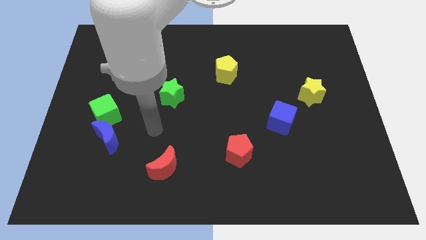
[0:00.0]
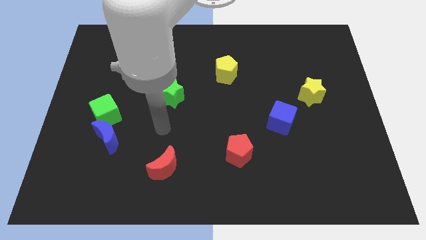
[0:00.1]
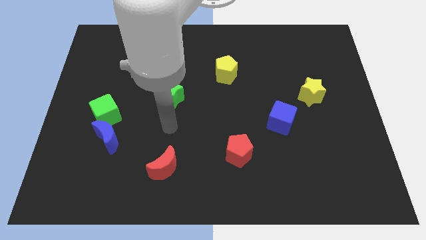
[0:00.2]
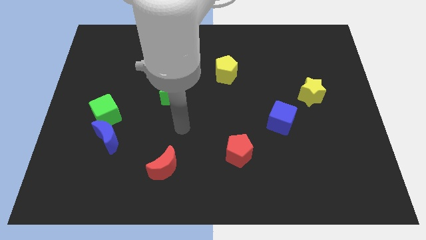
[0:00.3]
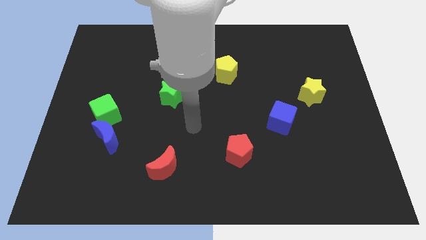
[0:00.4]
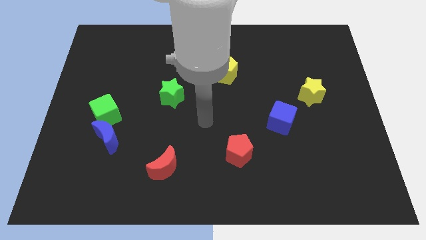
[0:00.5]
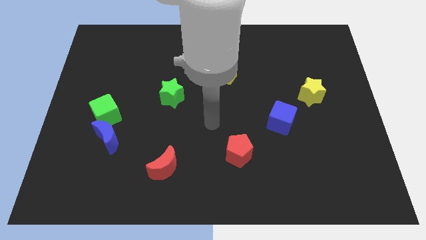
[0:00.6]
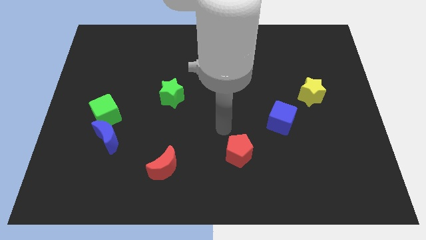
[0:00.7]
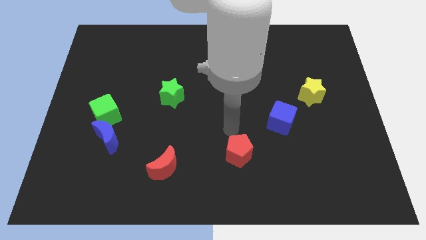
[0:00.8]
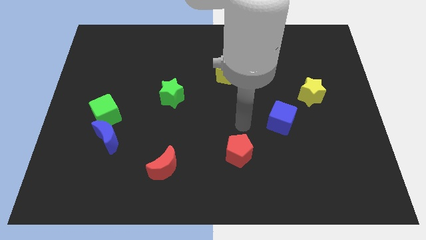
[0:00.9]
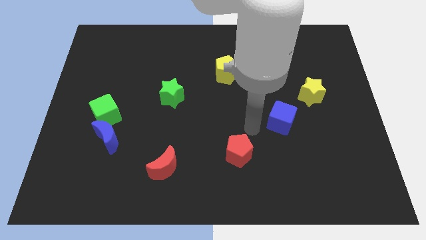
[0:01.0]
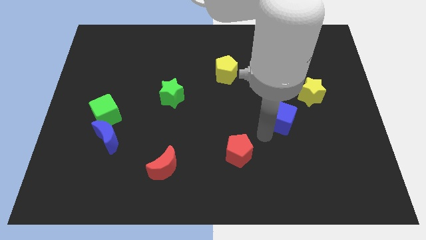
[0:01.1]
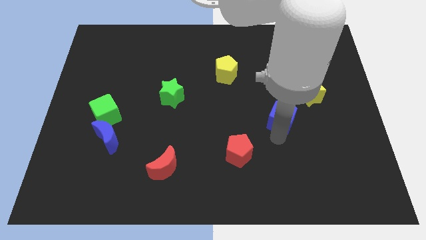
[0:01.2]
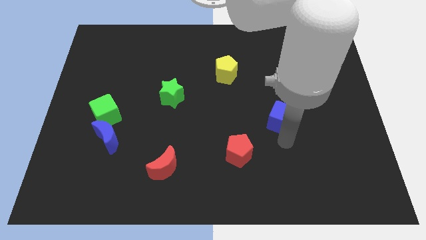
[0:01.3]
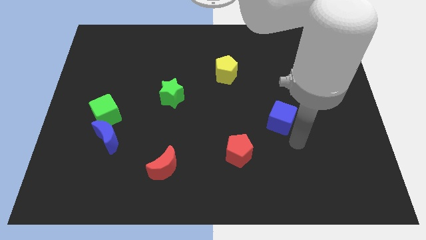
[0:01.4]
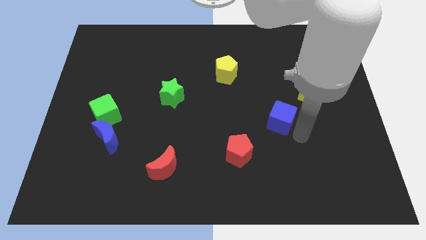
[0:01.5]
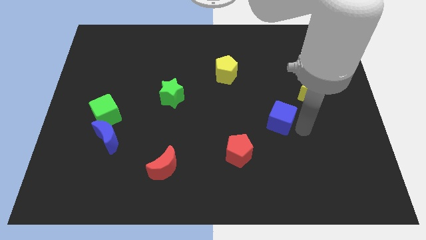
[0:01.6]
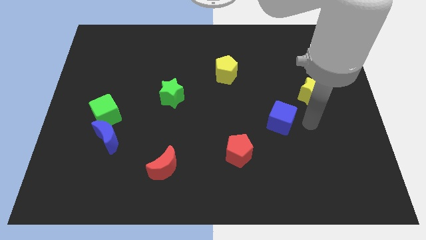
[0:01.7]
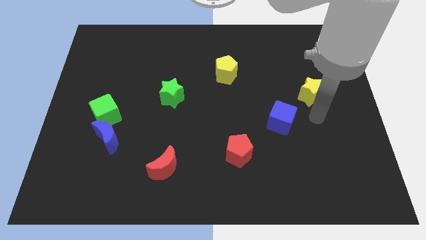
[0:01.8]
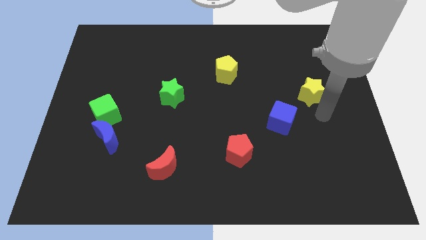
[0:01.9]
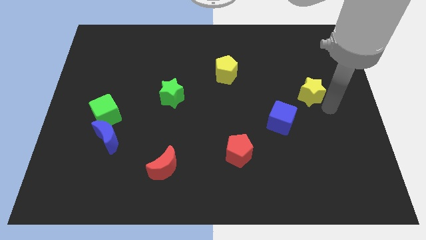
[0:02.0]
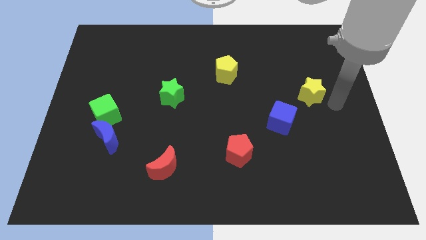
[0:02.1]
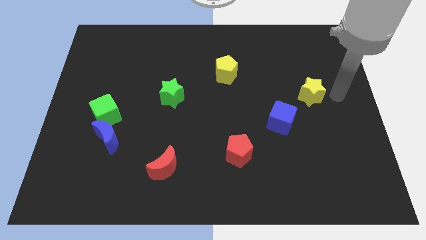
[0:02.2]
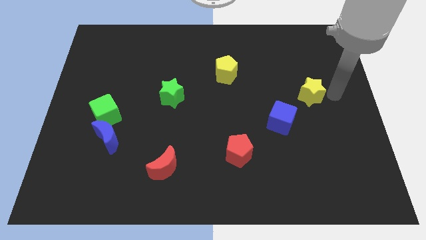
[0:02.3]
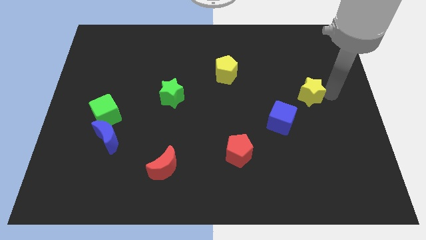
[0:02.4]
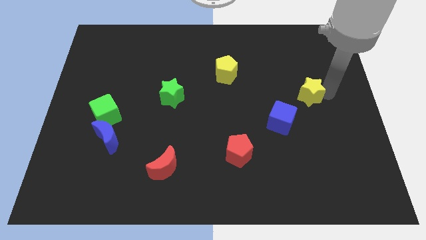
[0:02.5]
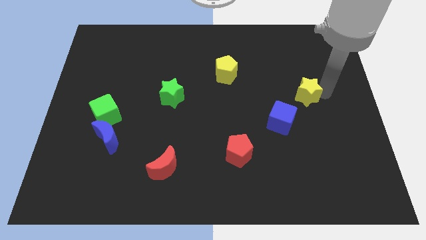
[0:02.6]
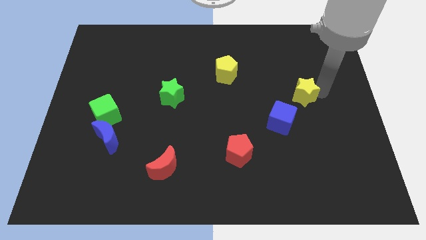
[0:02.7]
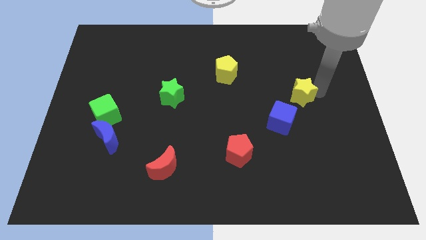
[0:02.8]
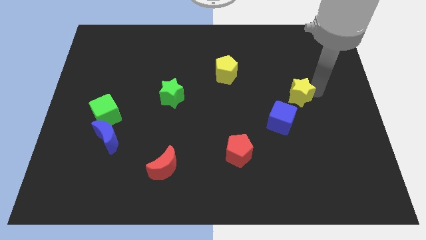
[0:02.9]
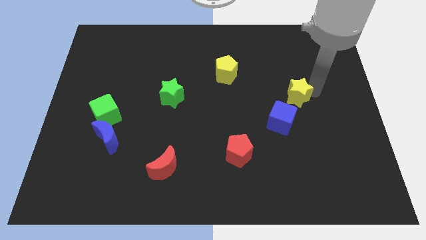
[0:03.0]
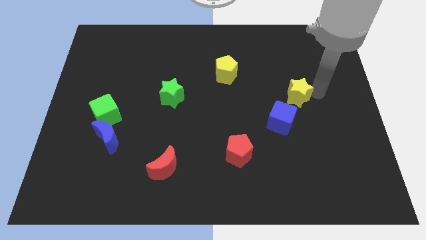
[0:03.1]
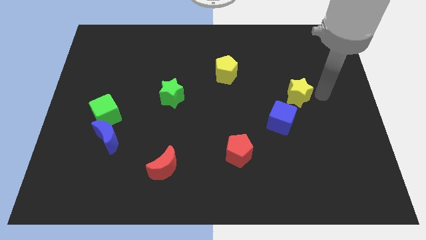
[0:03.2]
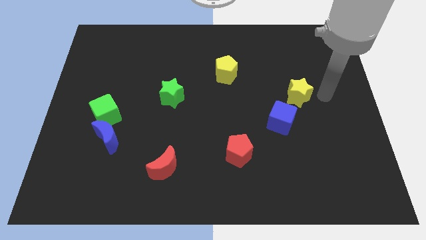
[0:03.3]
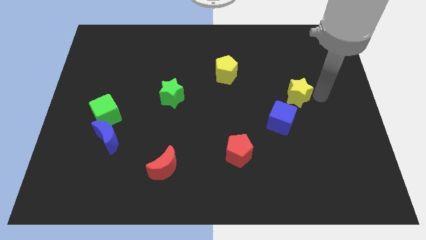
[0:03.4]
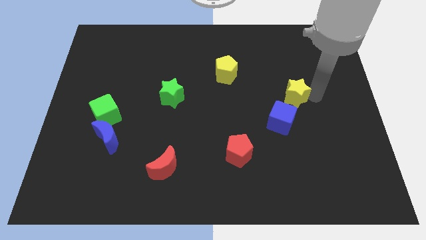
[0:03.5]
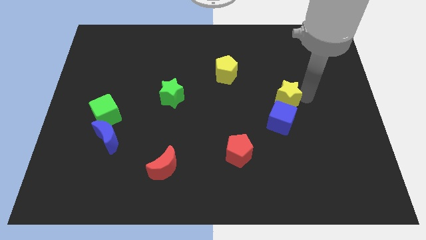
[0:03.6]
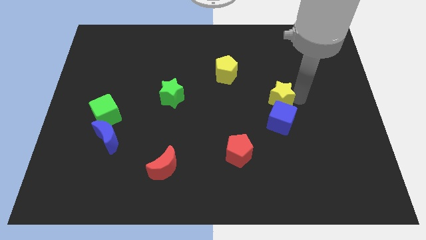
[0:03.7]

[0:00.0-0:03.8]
push the yellow star somewhat left

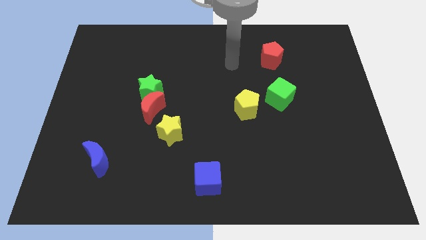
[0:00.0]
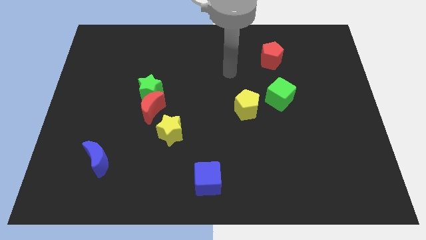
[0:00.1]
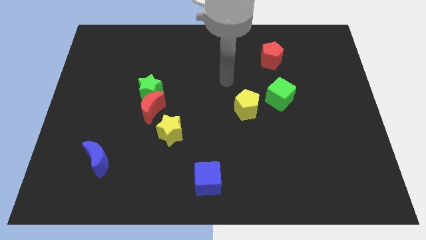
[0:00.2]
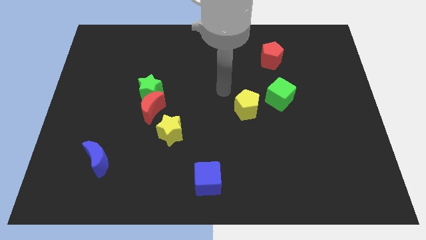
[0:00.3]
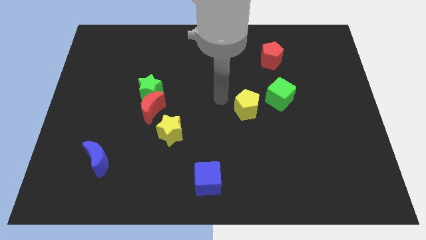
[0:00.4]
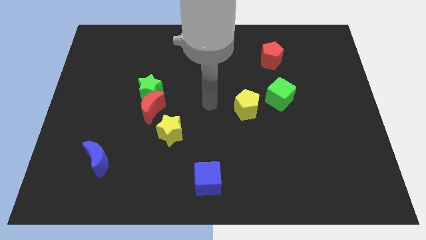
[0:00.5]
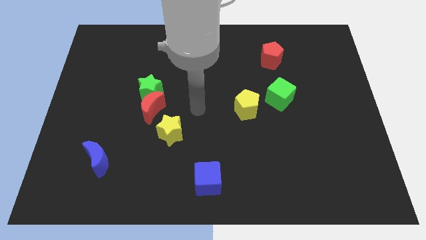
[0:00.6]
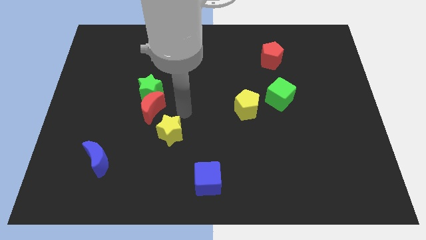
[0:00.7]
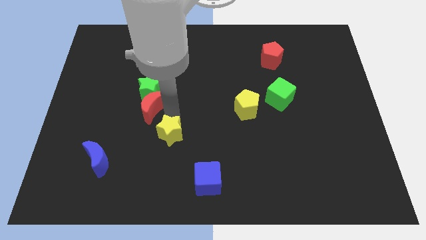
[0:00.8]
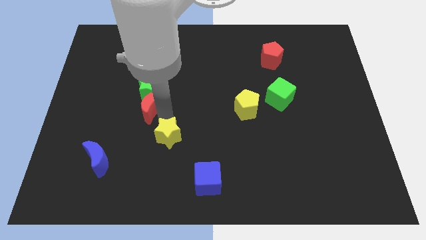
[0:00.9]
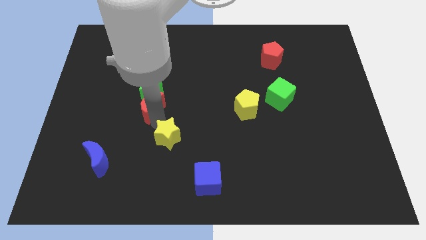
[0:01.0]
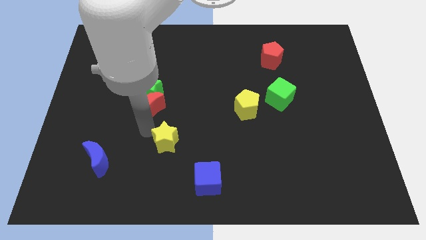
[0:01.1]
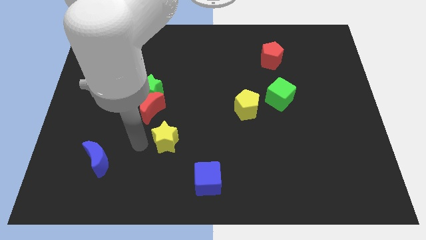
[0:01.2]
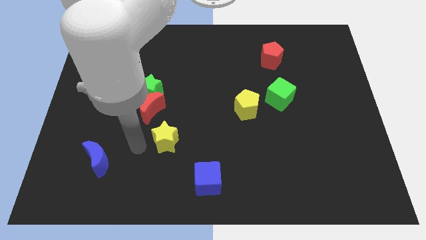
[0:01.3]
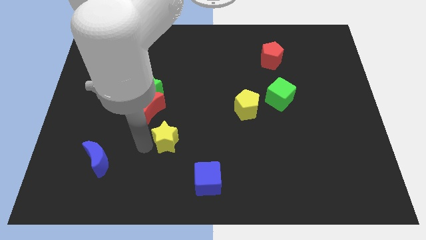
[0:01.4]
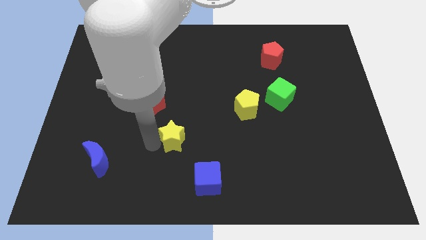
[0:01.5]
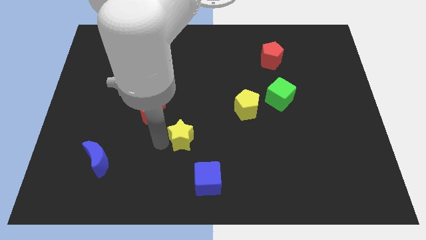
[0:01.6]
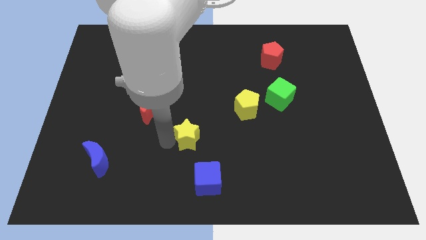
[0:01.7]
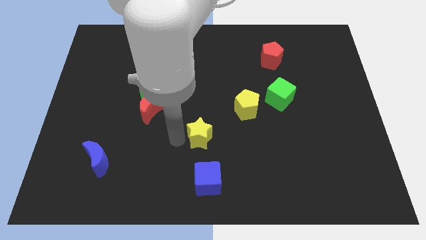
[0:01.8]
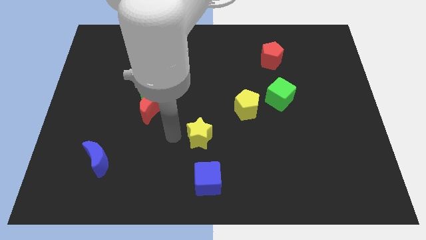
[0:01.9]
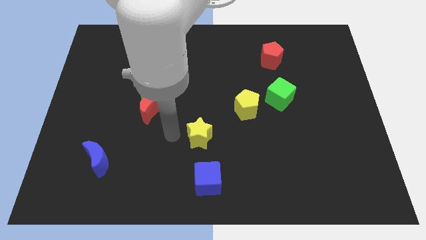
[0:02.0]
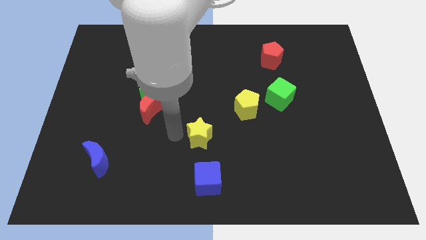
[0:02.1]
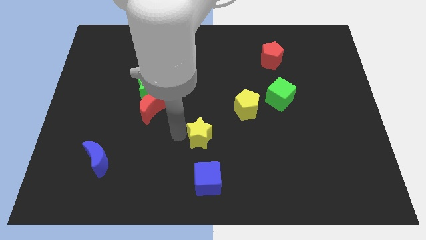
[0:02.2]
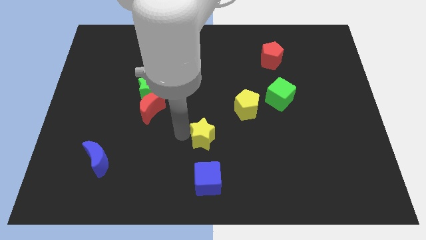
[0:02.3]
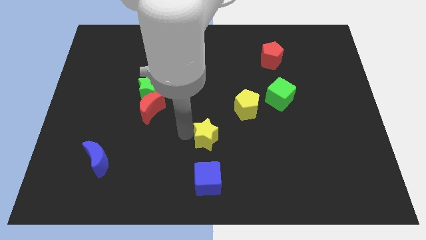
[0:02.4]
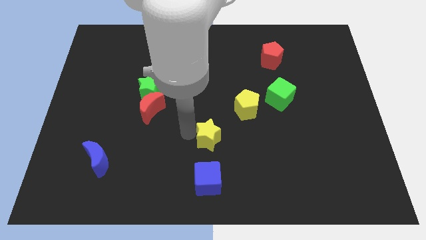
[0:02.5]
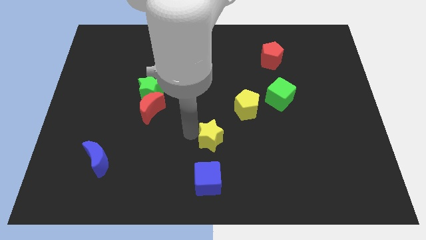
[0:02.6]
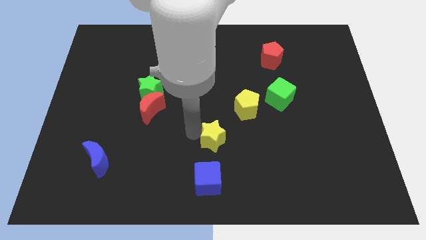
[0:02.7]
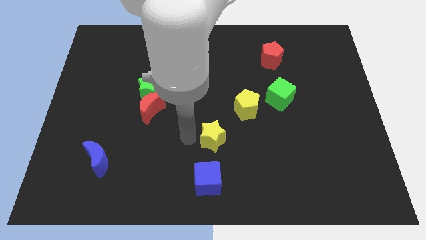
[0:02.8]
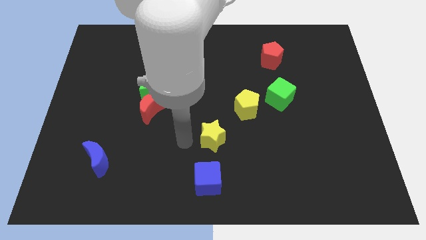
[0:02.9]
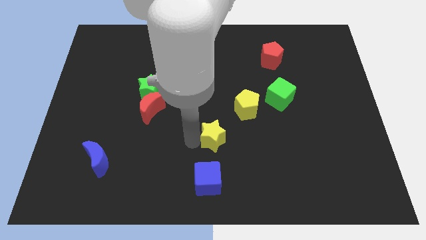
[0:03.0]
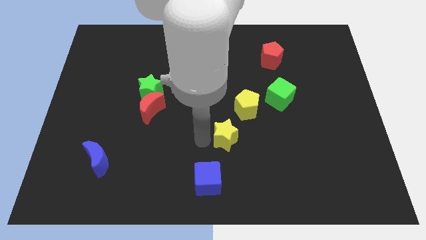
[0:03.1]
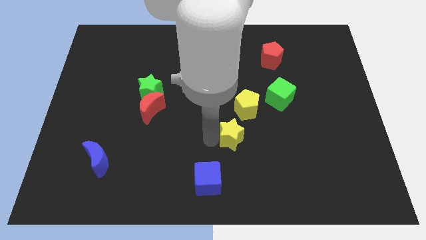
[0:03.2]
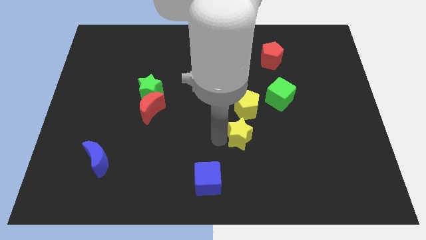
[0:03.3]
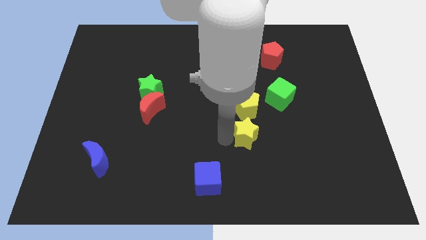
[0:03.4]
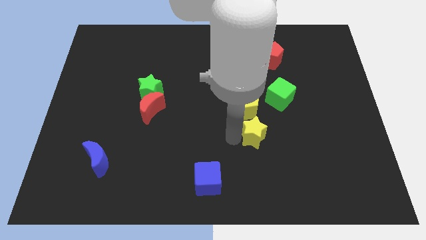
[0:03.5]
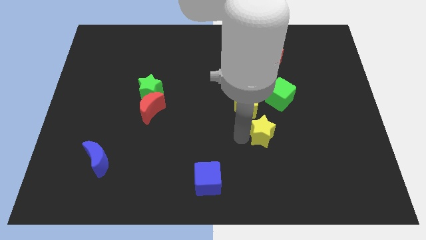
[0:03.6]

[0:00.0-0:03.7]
slide the yellow star right

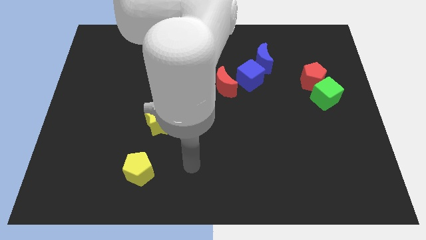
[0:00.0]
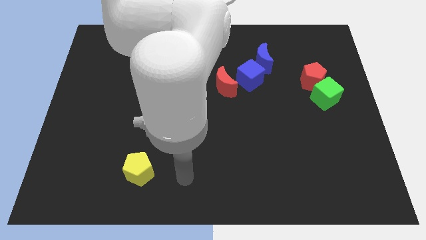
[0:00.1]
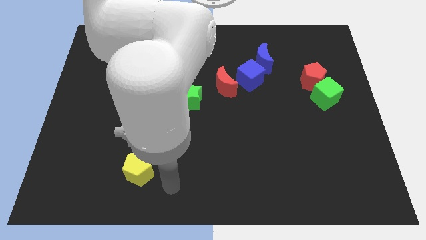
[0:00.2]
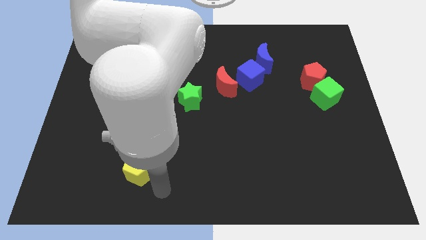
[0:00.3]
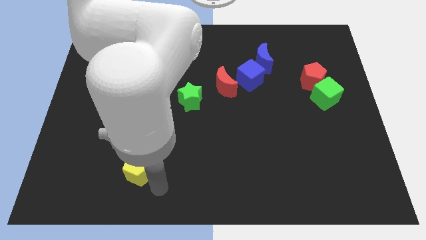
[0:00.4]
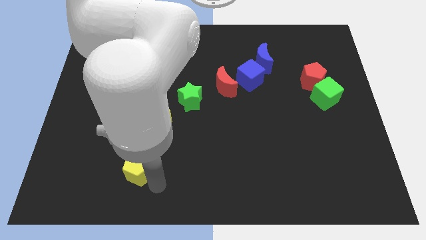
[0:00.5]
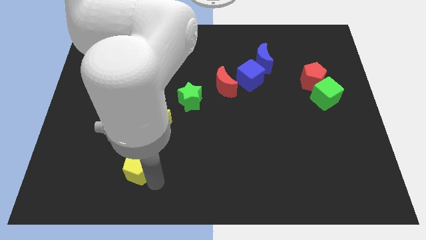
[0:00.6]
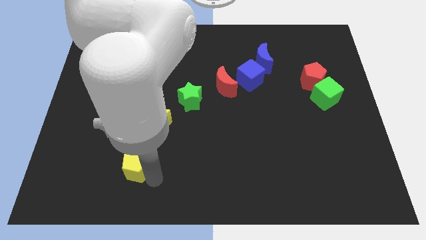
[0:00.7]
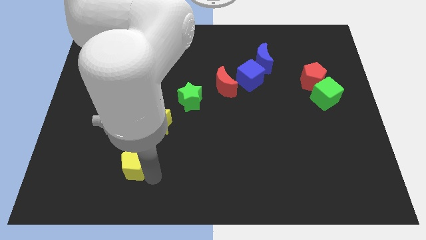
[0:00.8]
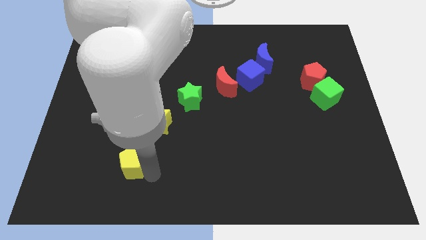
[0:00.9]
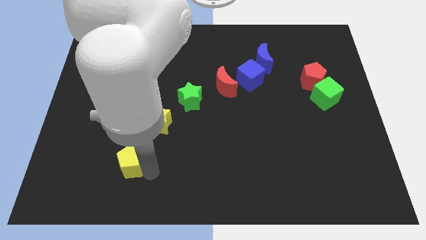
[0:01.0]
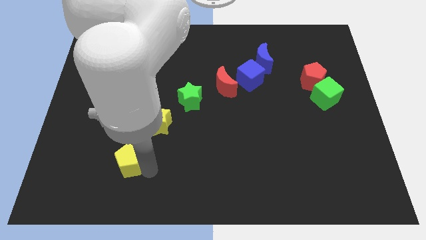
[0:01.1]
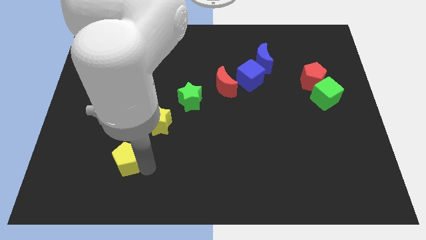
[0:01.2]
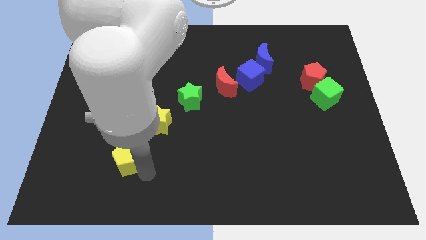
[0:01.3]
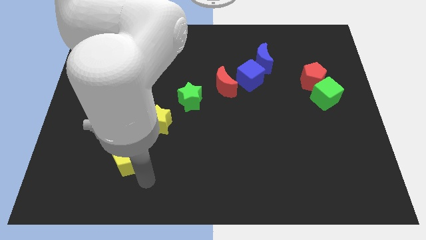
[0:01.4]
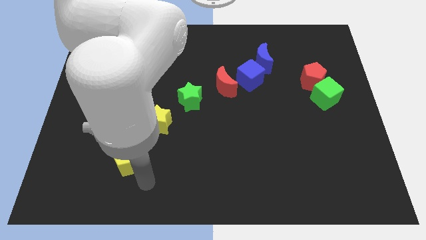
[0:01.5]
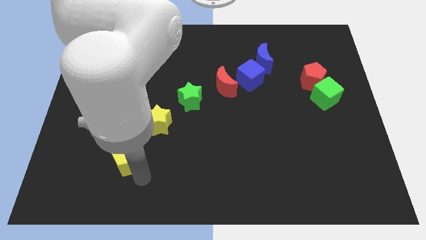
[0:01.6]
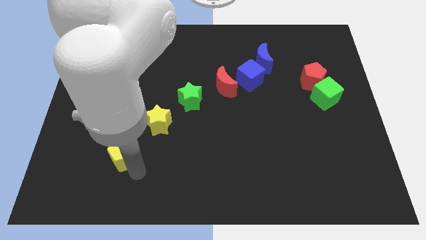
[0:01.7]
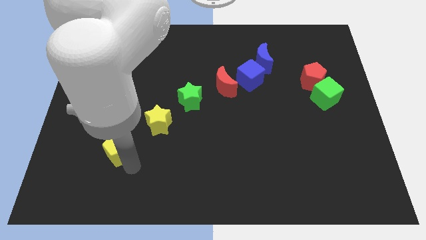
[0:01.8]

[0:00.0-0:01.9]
slightly slide the yellow pentagon upwards and to the left
